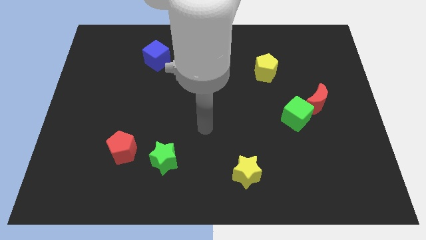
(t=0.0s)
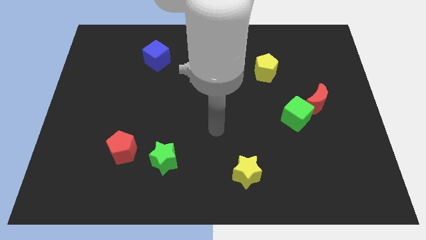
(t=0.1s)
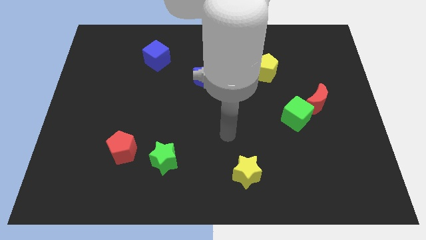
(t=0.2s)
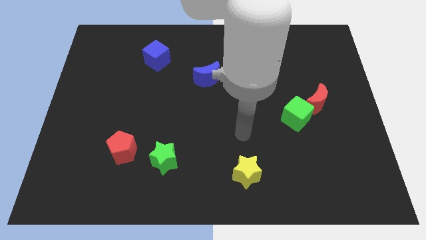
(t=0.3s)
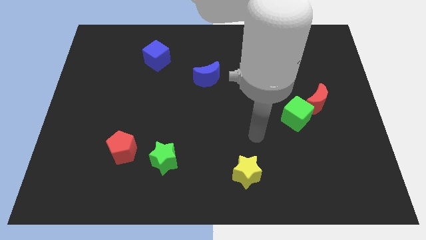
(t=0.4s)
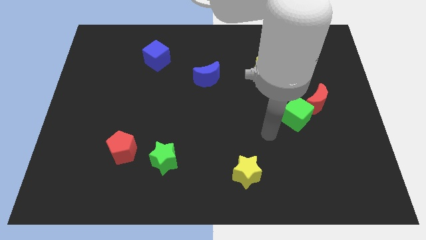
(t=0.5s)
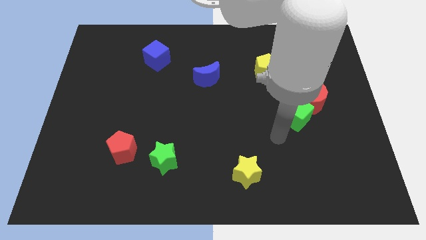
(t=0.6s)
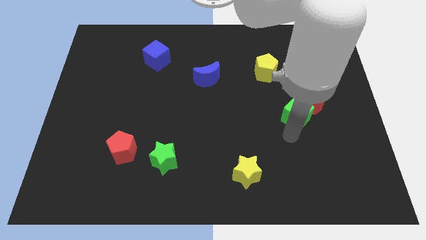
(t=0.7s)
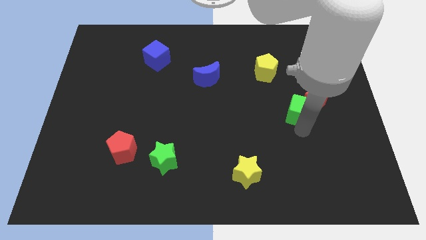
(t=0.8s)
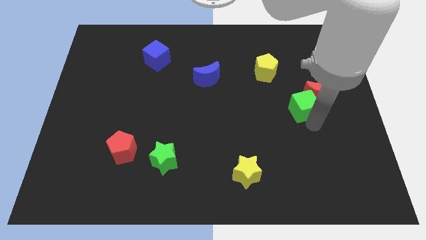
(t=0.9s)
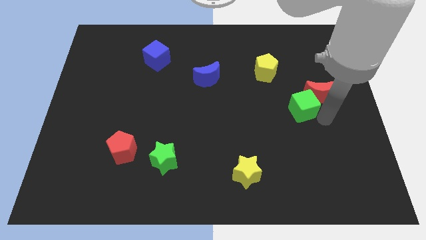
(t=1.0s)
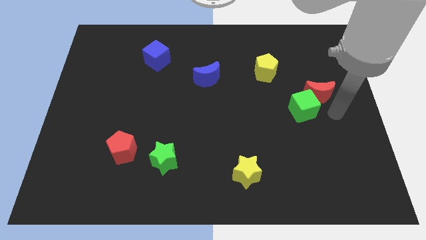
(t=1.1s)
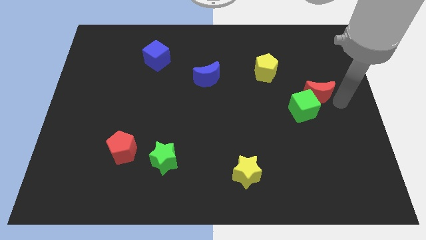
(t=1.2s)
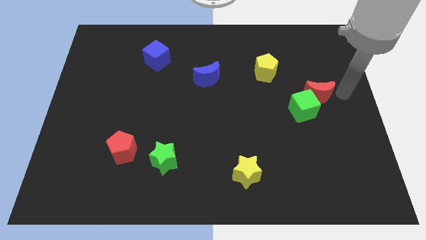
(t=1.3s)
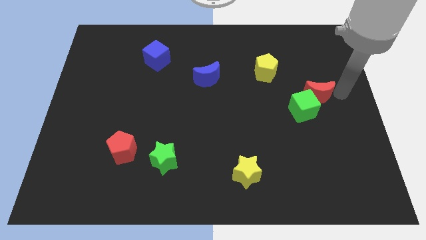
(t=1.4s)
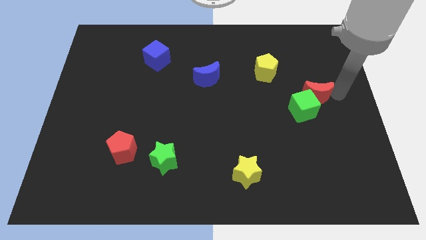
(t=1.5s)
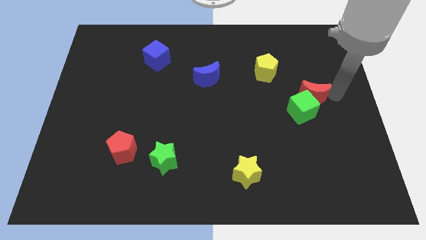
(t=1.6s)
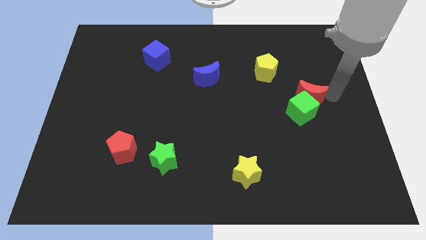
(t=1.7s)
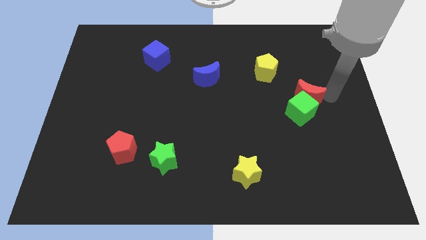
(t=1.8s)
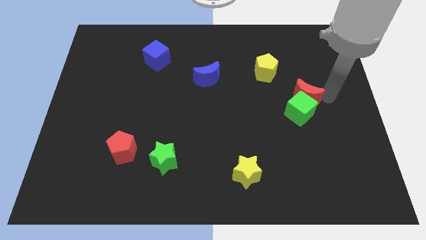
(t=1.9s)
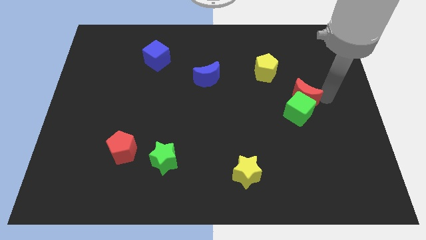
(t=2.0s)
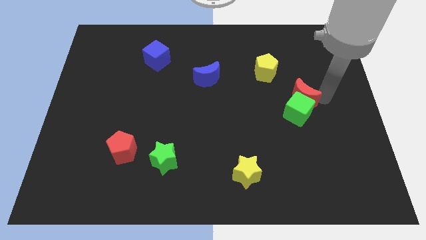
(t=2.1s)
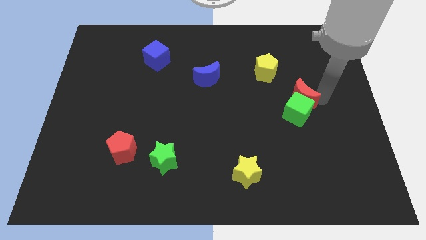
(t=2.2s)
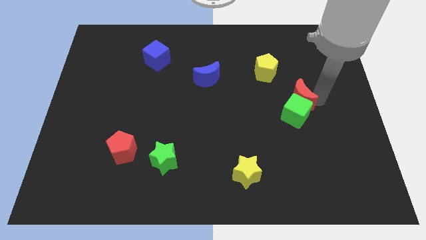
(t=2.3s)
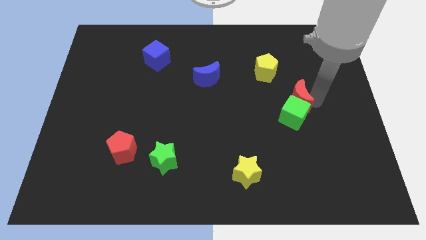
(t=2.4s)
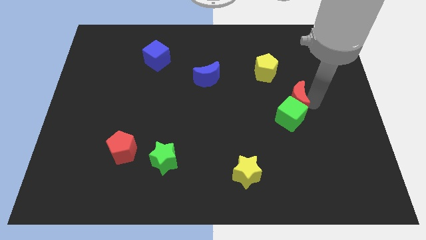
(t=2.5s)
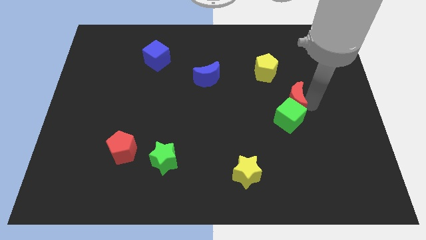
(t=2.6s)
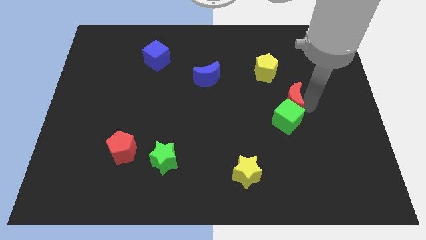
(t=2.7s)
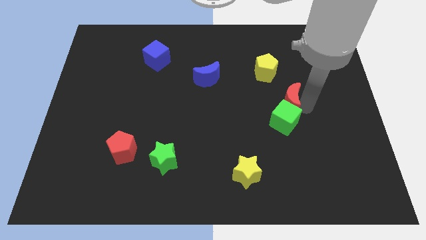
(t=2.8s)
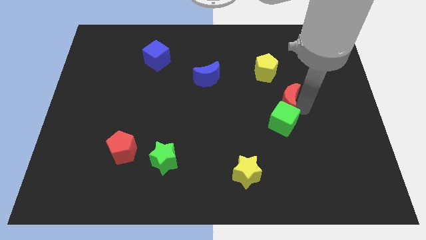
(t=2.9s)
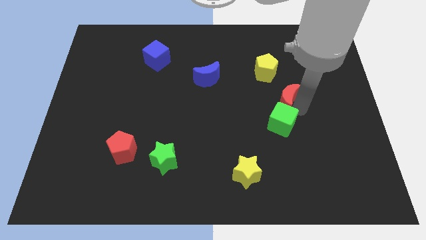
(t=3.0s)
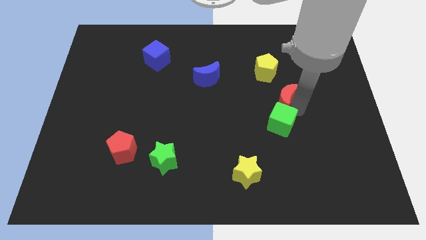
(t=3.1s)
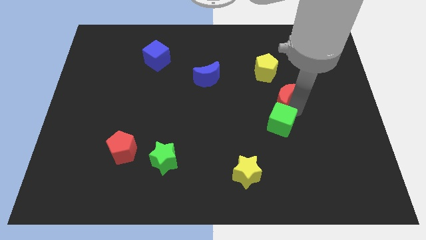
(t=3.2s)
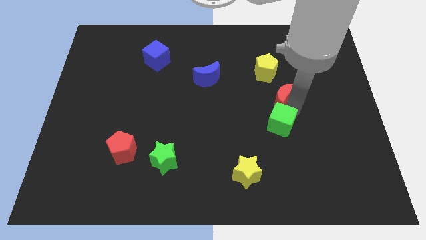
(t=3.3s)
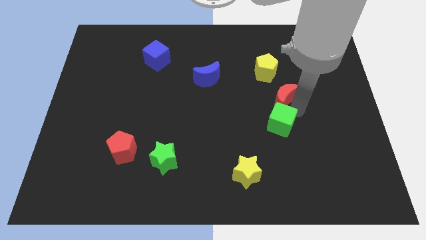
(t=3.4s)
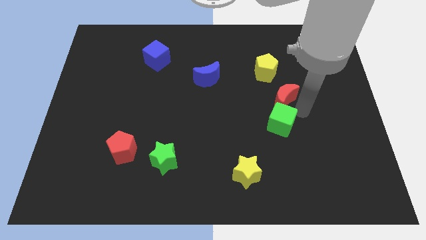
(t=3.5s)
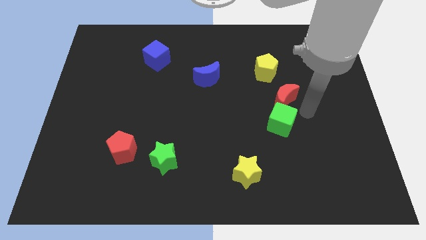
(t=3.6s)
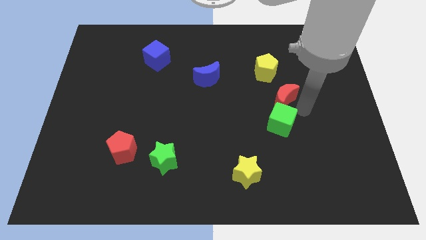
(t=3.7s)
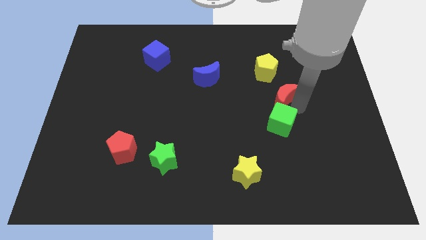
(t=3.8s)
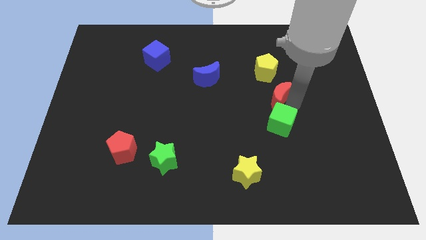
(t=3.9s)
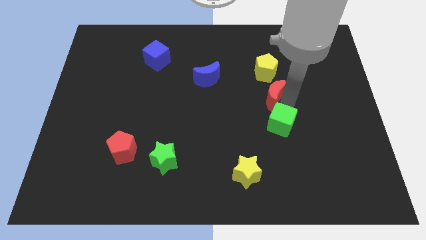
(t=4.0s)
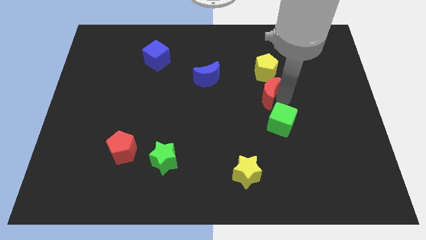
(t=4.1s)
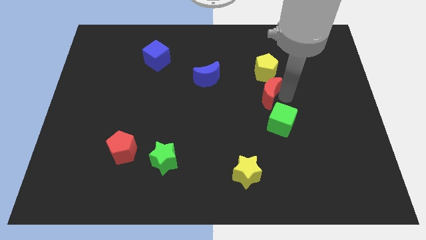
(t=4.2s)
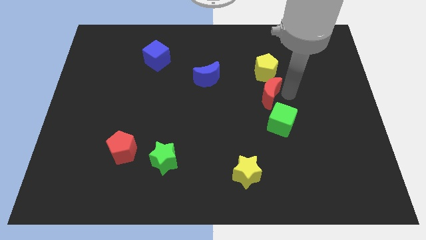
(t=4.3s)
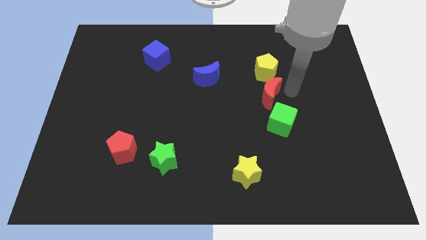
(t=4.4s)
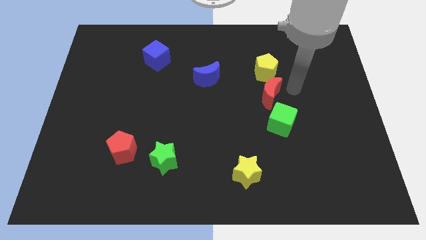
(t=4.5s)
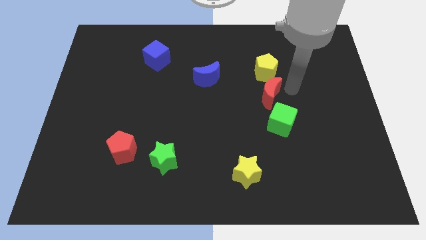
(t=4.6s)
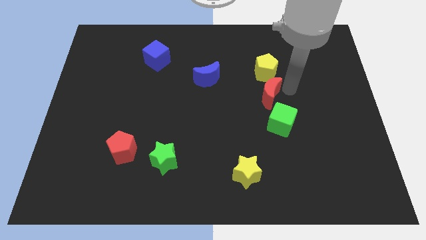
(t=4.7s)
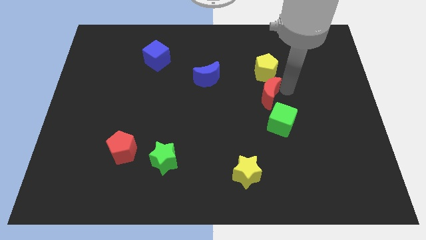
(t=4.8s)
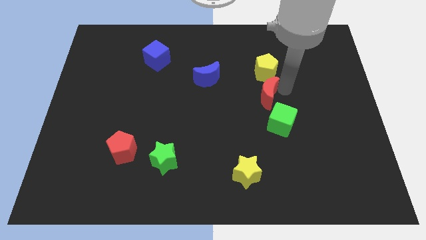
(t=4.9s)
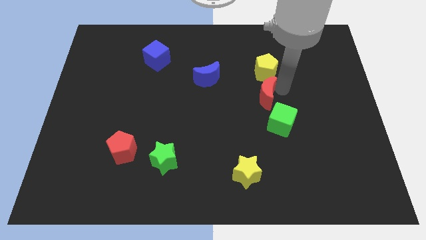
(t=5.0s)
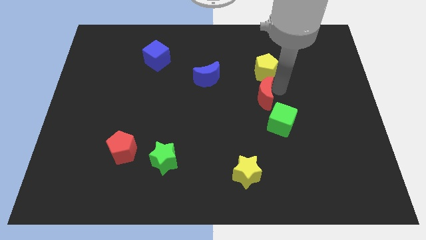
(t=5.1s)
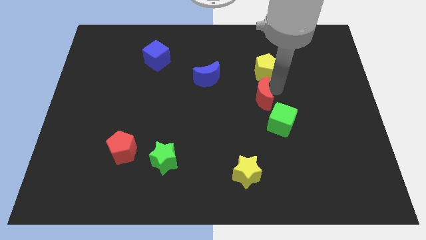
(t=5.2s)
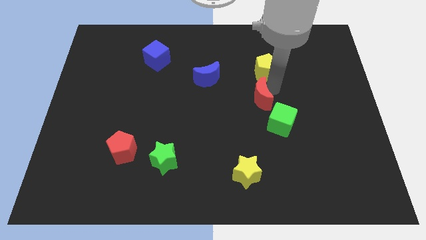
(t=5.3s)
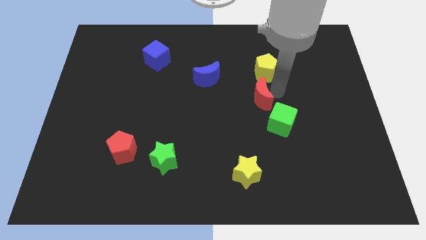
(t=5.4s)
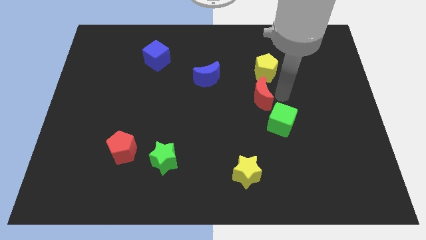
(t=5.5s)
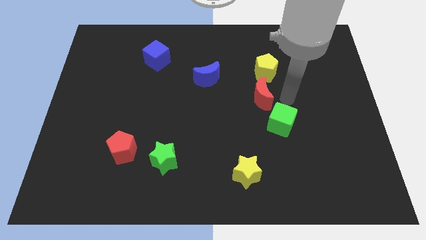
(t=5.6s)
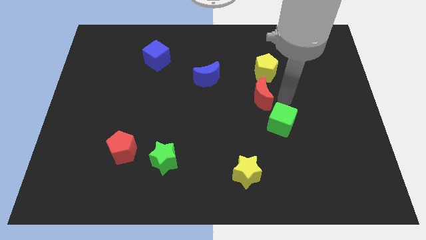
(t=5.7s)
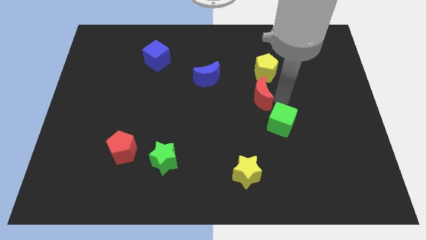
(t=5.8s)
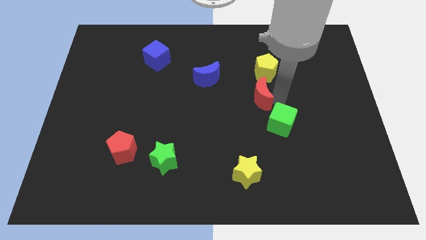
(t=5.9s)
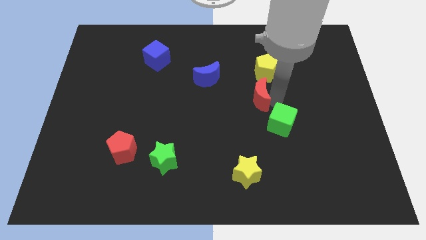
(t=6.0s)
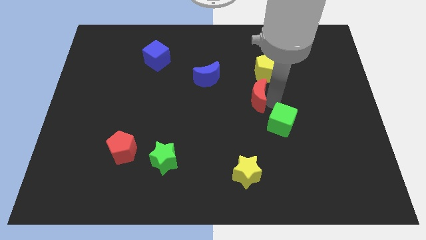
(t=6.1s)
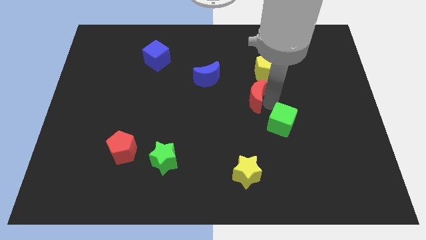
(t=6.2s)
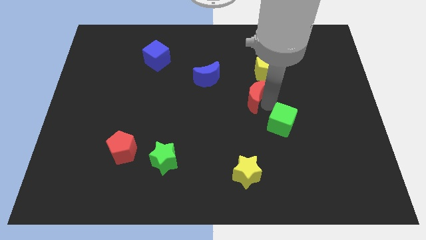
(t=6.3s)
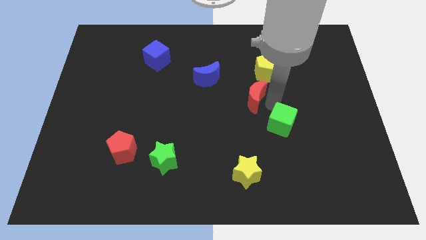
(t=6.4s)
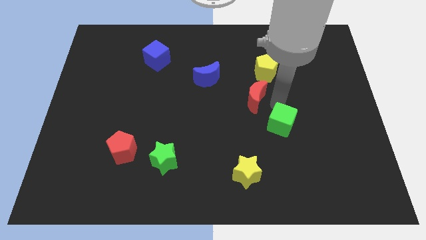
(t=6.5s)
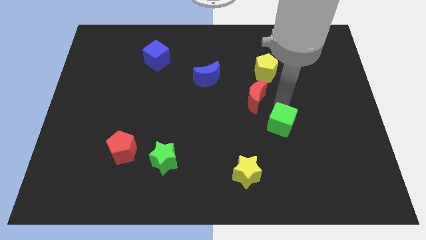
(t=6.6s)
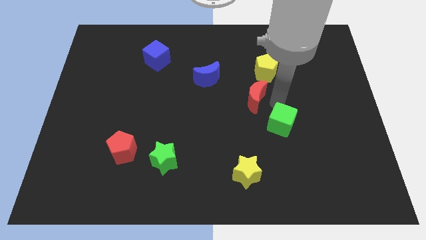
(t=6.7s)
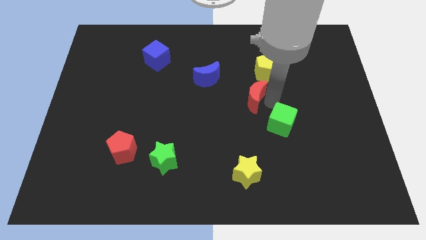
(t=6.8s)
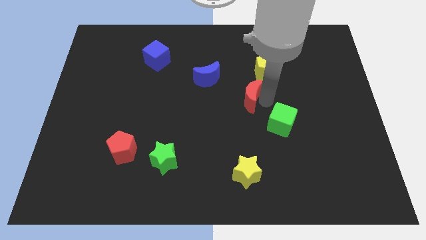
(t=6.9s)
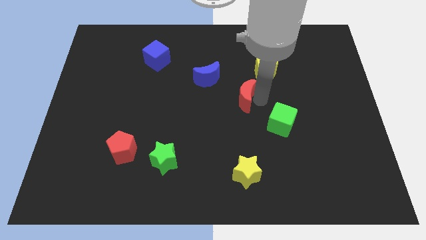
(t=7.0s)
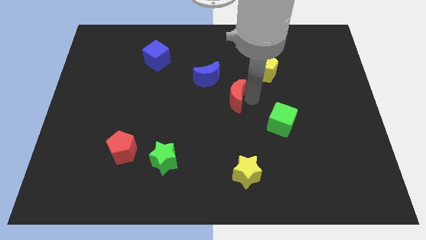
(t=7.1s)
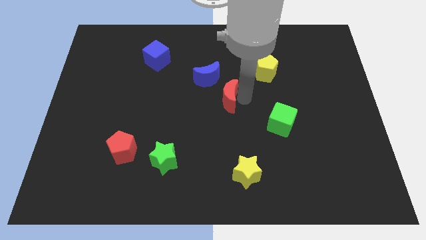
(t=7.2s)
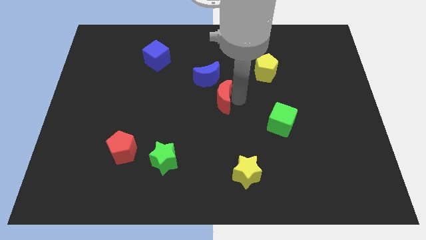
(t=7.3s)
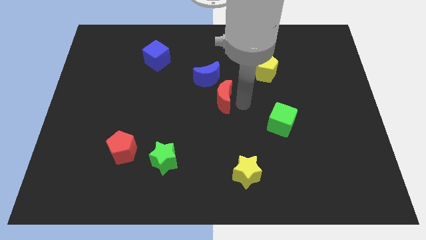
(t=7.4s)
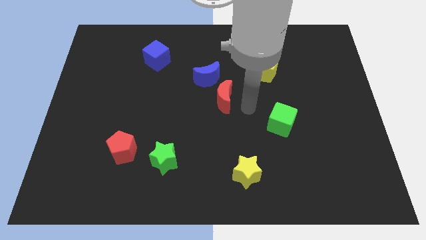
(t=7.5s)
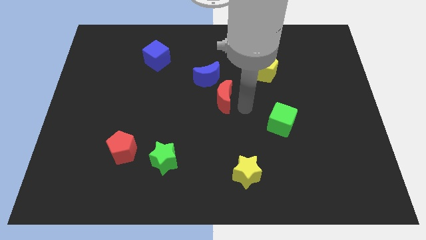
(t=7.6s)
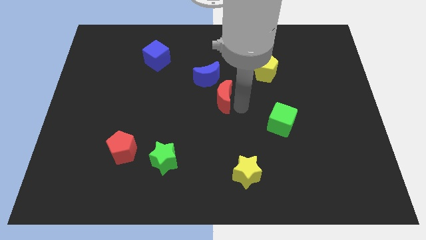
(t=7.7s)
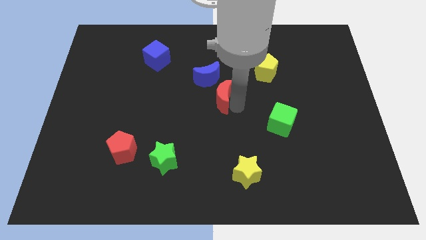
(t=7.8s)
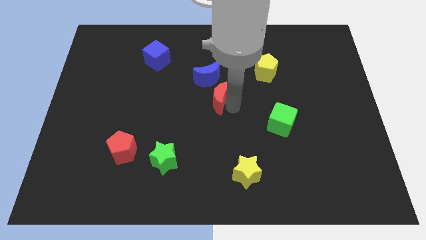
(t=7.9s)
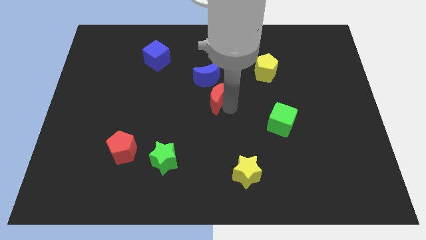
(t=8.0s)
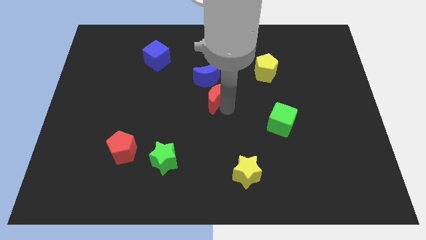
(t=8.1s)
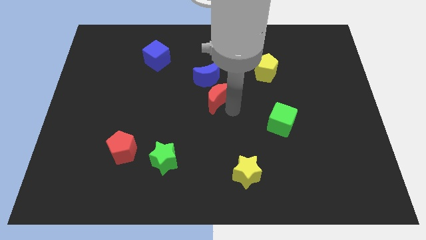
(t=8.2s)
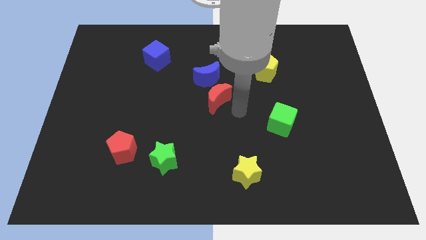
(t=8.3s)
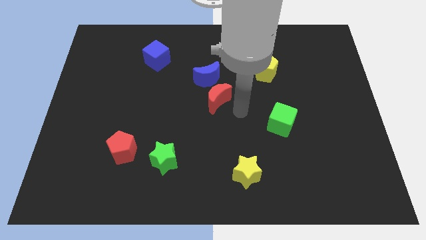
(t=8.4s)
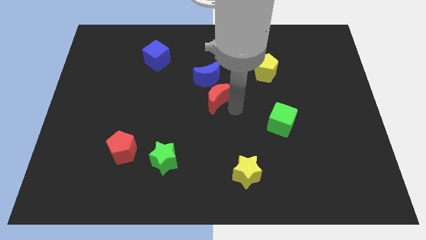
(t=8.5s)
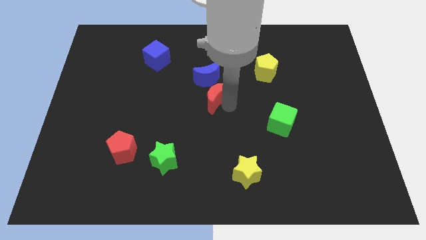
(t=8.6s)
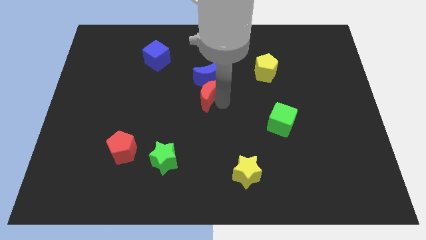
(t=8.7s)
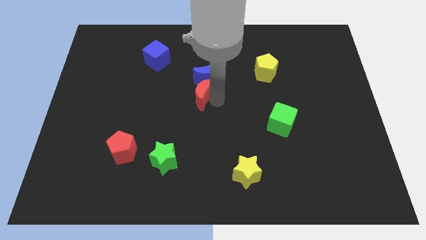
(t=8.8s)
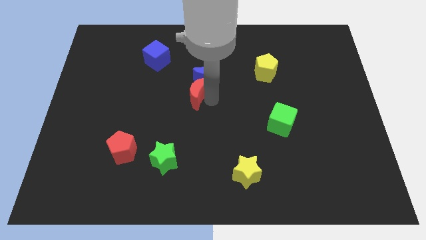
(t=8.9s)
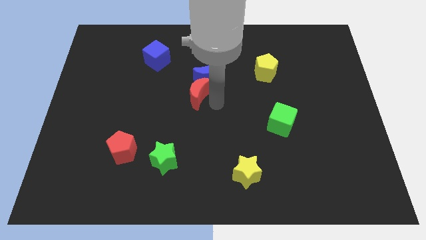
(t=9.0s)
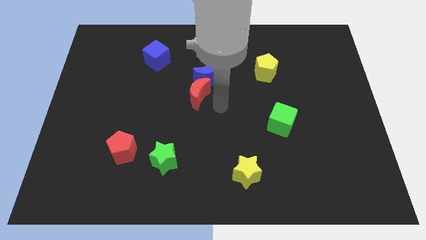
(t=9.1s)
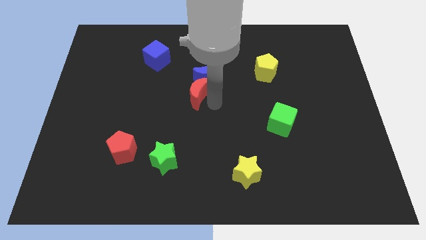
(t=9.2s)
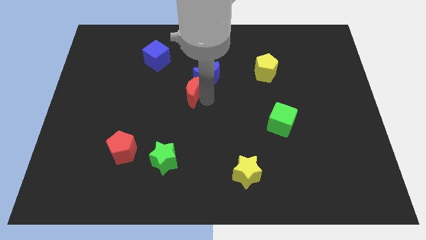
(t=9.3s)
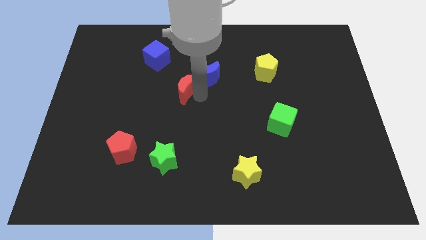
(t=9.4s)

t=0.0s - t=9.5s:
push the red moon to the left of the blue moon
